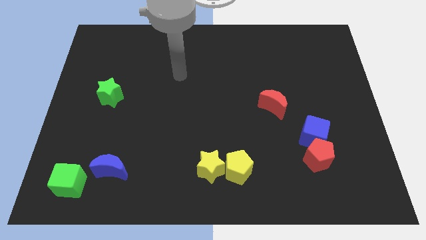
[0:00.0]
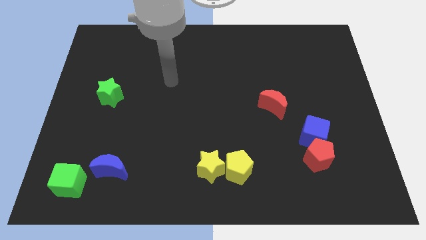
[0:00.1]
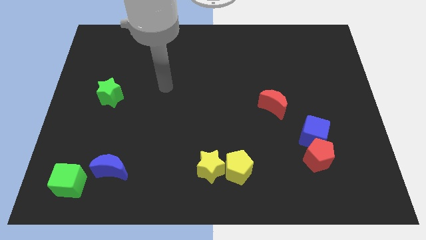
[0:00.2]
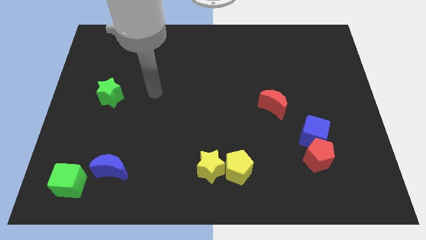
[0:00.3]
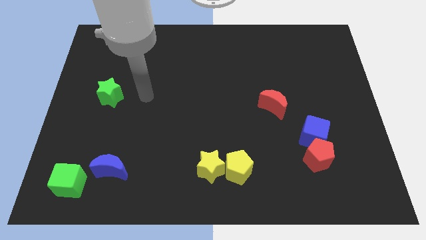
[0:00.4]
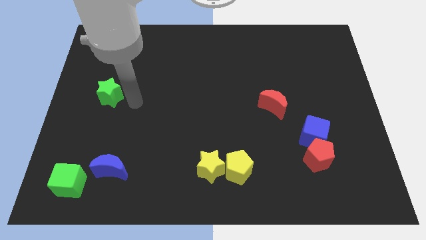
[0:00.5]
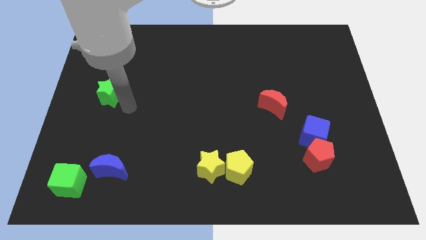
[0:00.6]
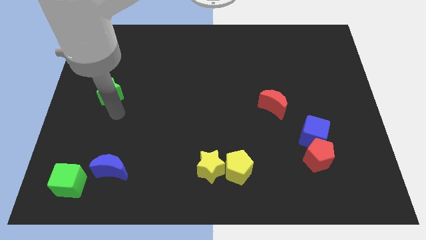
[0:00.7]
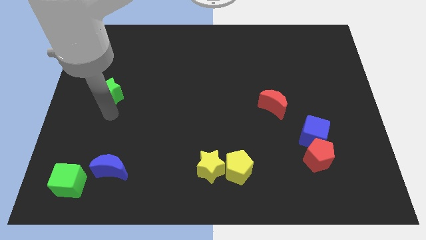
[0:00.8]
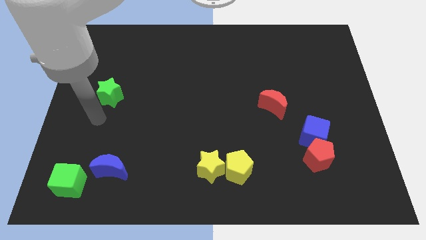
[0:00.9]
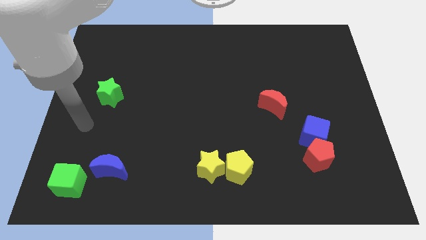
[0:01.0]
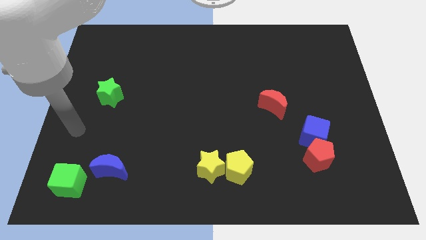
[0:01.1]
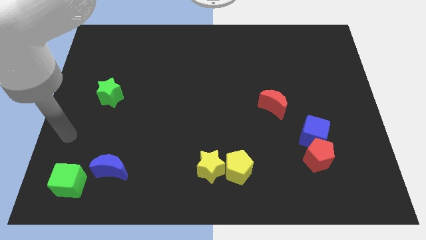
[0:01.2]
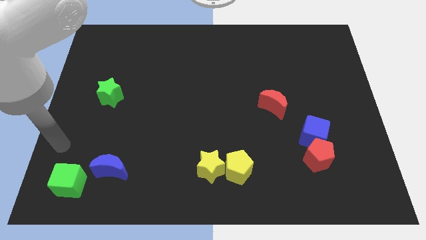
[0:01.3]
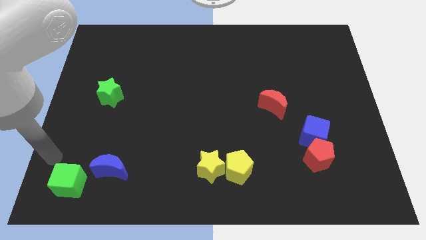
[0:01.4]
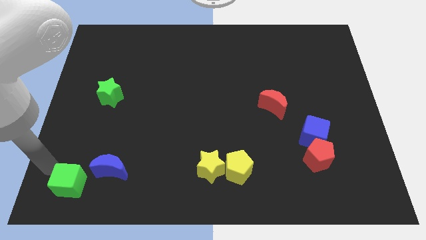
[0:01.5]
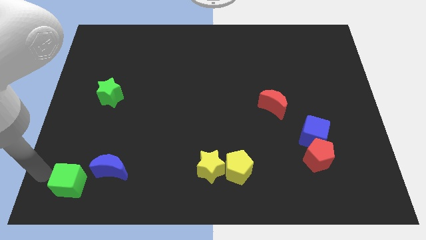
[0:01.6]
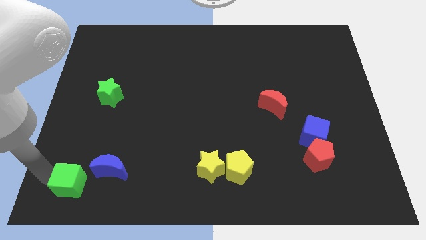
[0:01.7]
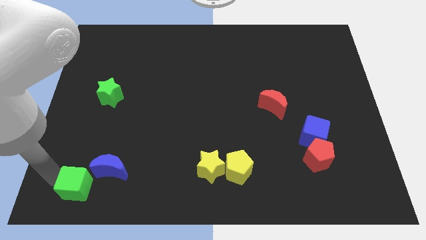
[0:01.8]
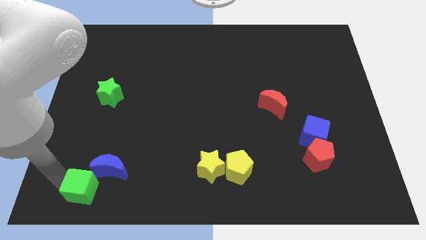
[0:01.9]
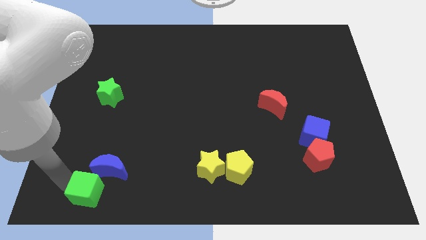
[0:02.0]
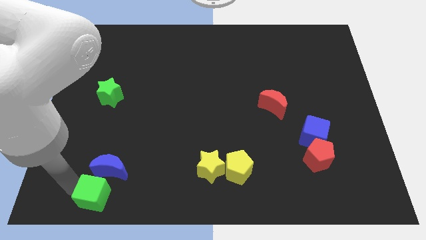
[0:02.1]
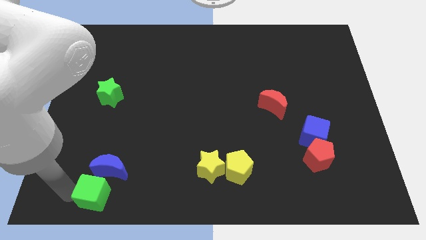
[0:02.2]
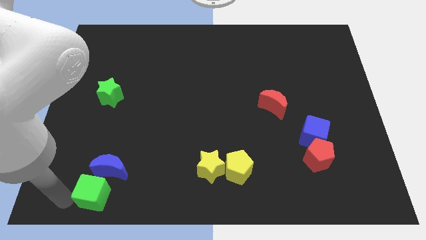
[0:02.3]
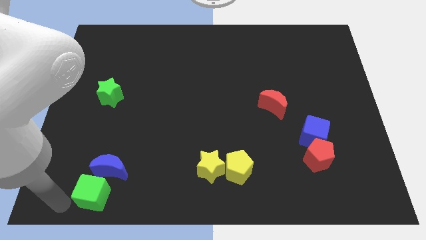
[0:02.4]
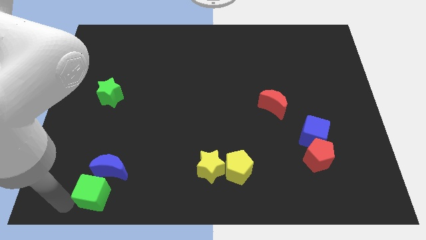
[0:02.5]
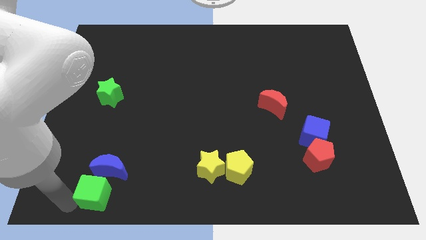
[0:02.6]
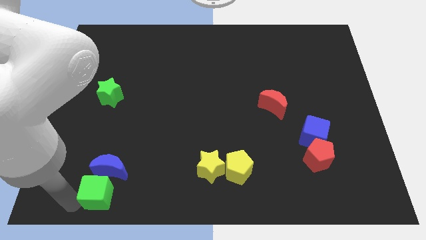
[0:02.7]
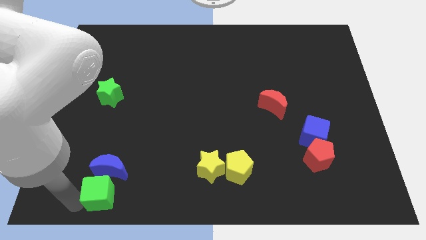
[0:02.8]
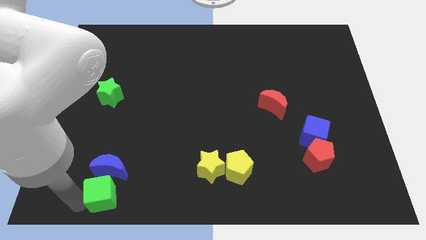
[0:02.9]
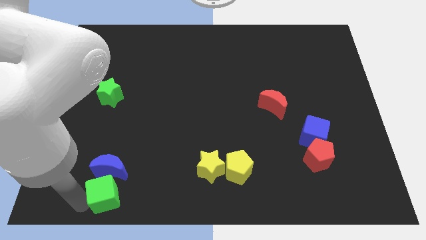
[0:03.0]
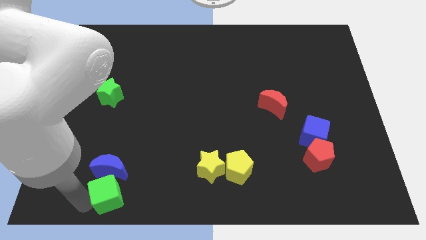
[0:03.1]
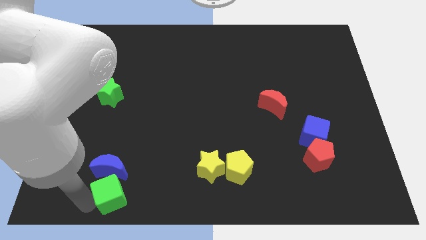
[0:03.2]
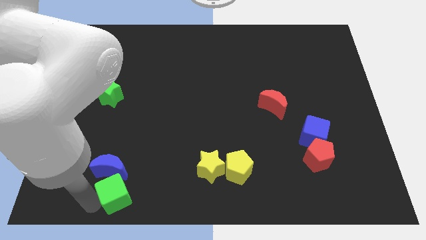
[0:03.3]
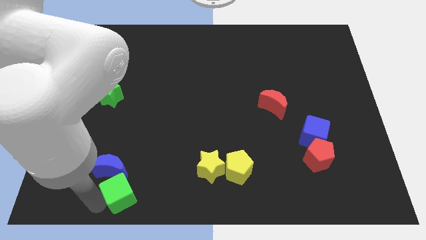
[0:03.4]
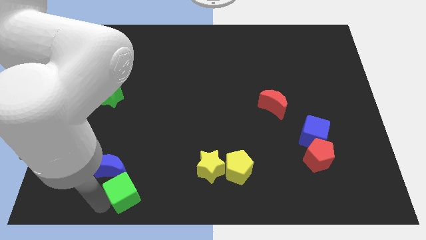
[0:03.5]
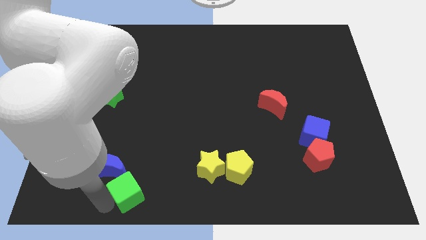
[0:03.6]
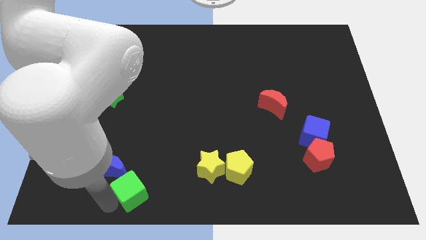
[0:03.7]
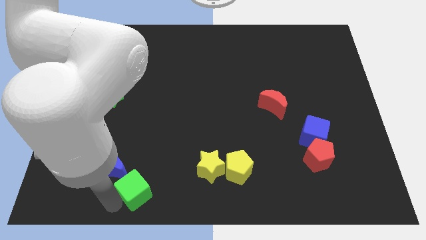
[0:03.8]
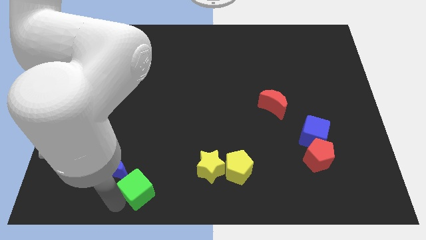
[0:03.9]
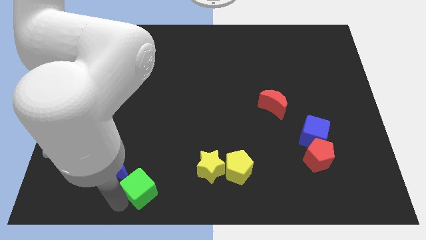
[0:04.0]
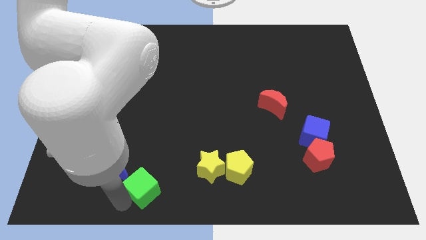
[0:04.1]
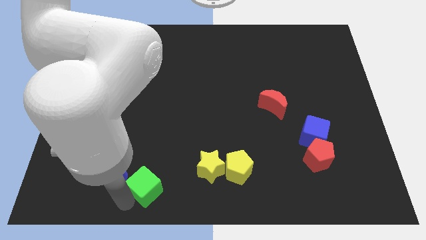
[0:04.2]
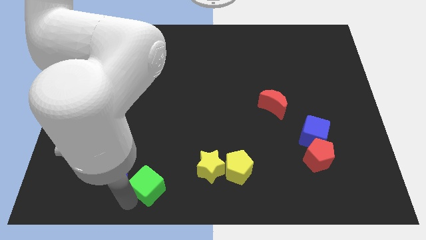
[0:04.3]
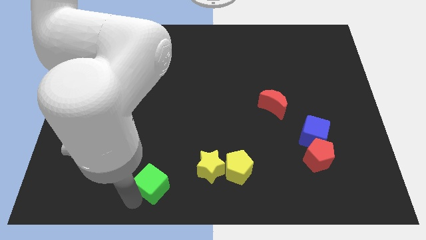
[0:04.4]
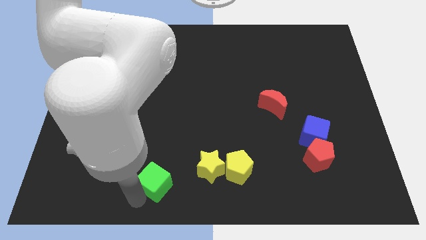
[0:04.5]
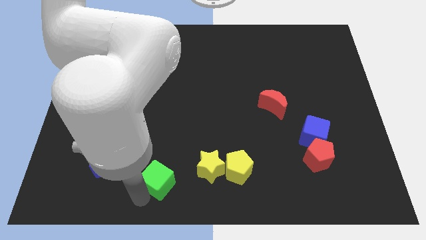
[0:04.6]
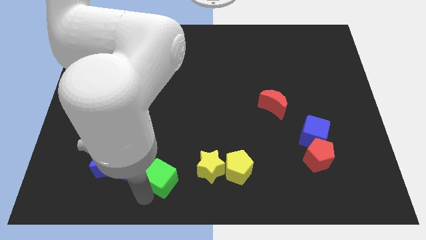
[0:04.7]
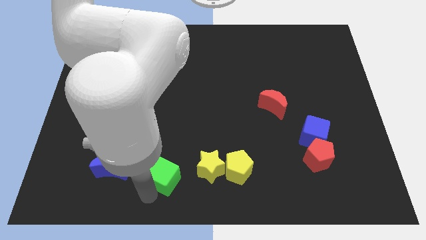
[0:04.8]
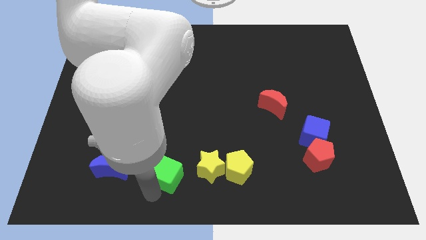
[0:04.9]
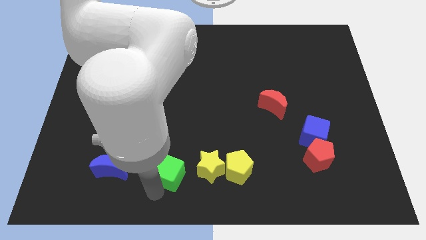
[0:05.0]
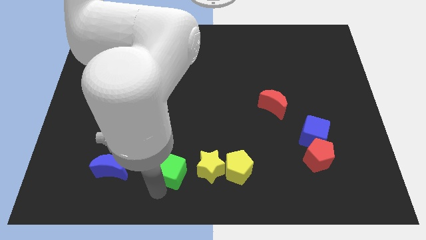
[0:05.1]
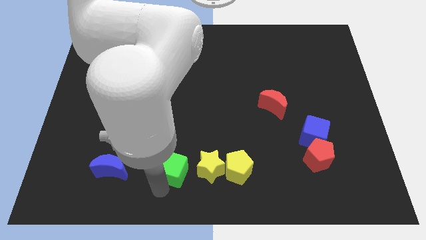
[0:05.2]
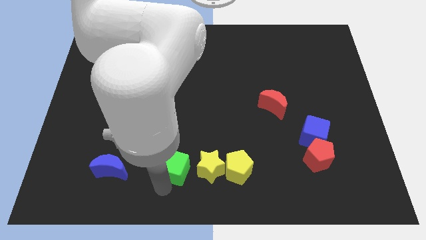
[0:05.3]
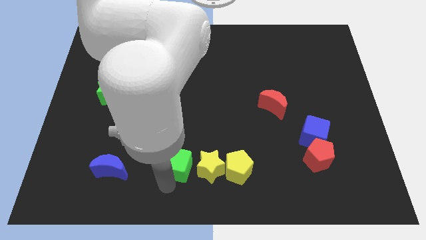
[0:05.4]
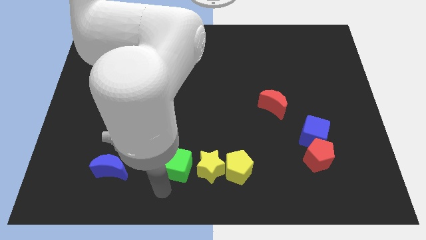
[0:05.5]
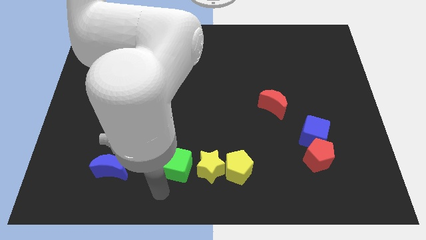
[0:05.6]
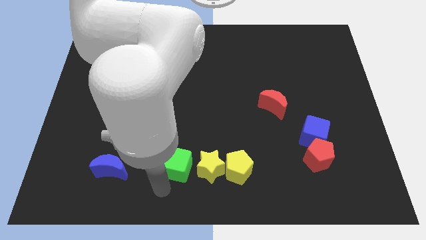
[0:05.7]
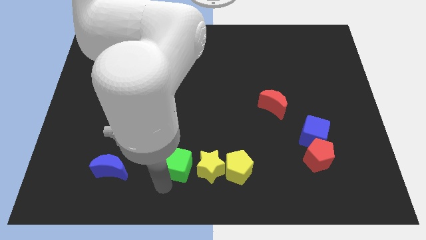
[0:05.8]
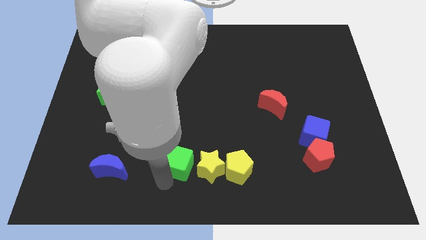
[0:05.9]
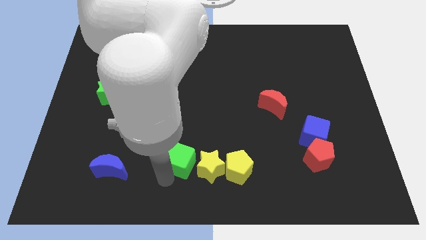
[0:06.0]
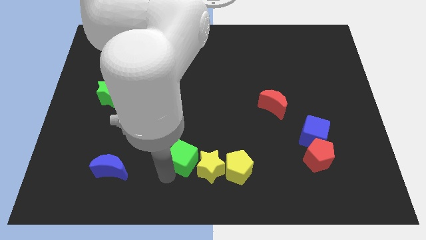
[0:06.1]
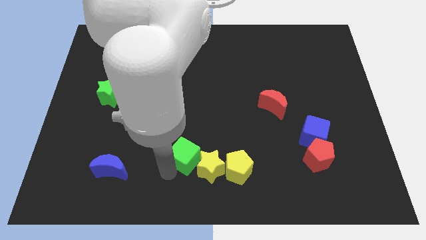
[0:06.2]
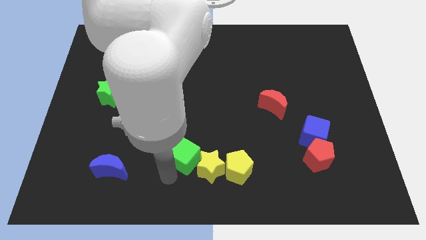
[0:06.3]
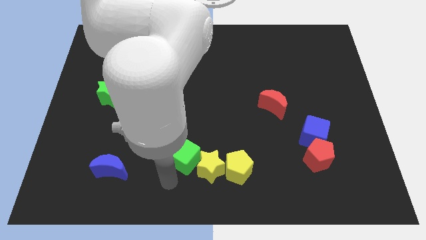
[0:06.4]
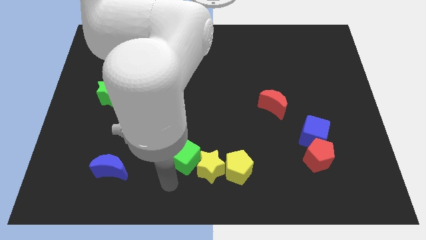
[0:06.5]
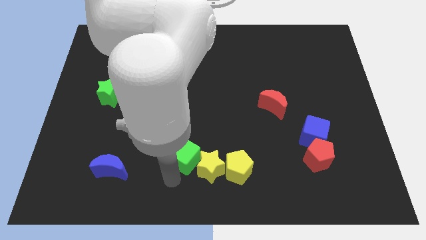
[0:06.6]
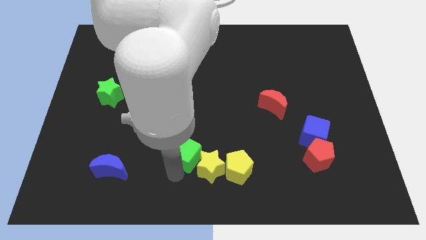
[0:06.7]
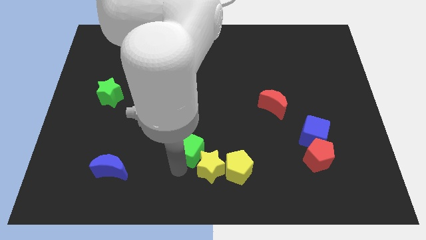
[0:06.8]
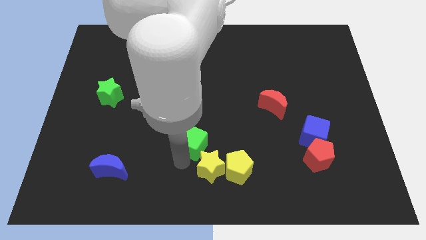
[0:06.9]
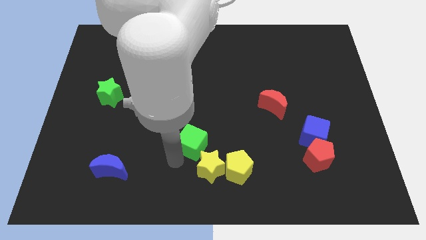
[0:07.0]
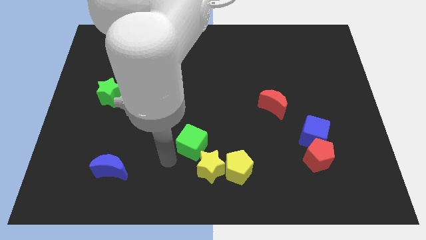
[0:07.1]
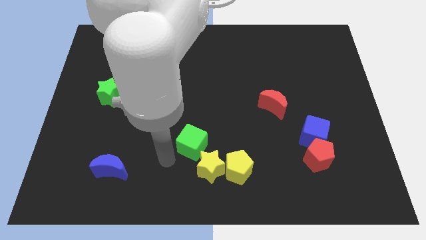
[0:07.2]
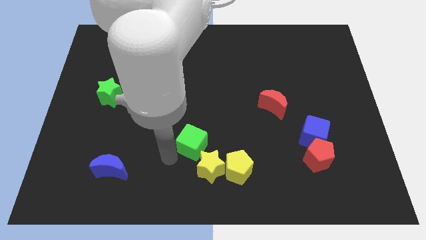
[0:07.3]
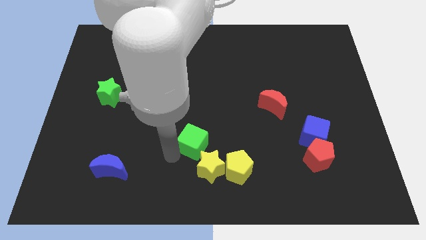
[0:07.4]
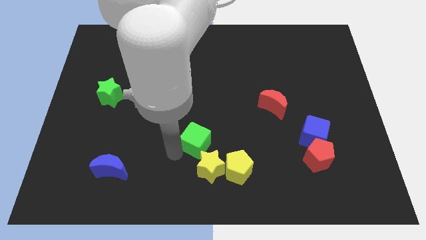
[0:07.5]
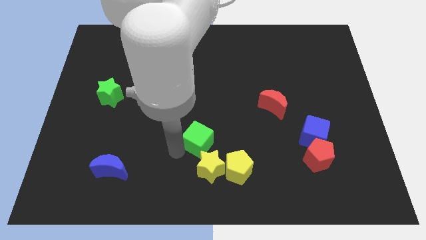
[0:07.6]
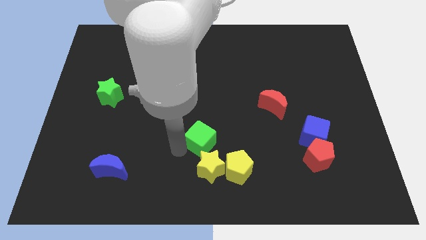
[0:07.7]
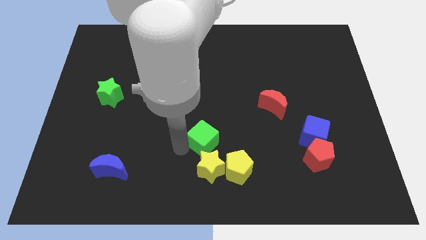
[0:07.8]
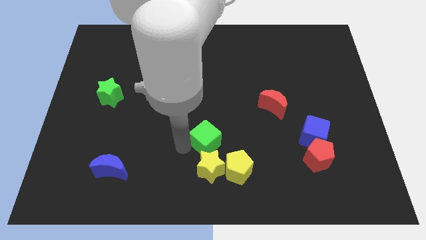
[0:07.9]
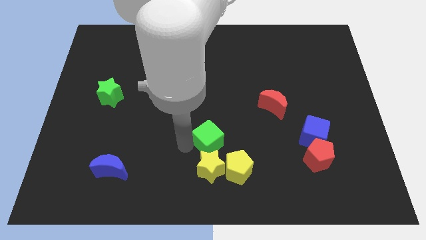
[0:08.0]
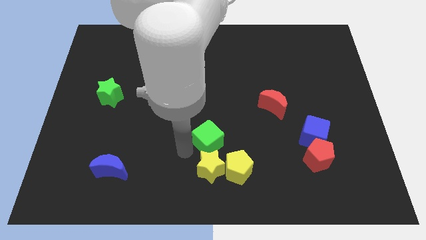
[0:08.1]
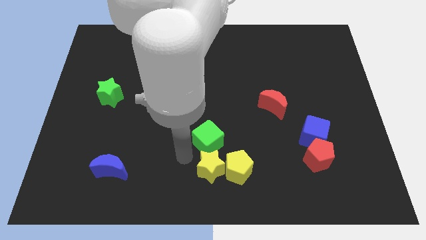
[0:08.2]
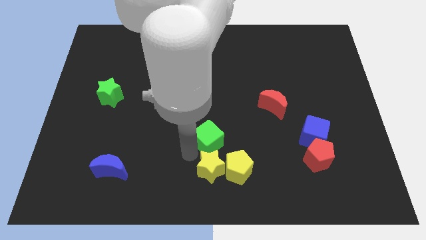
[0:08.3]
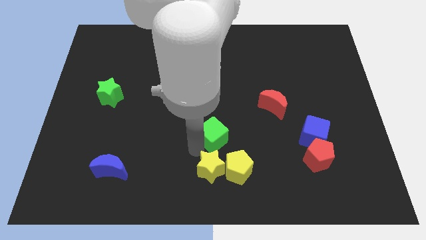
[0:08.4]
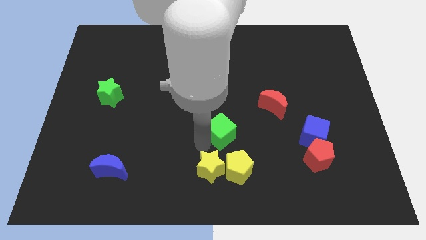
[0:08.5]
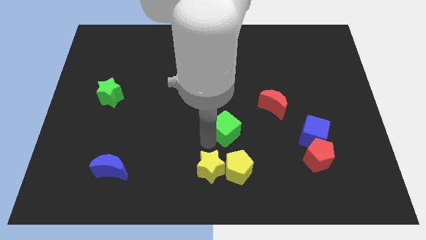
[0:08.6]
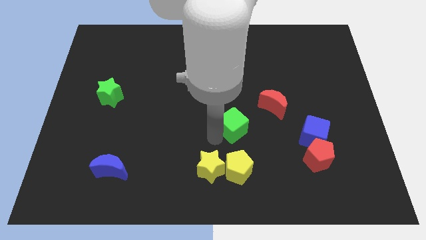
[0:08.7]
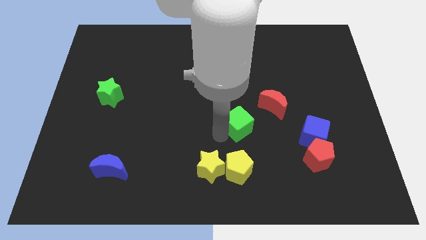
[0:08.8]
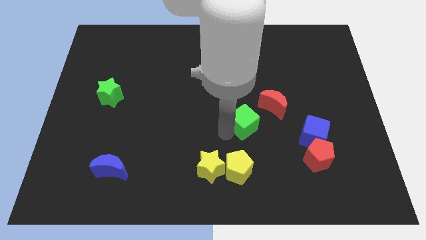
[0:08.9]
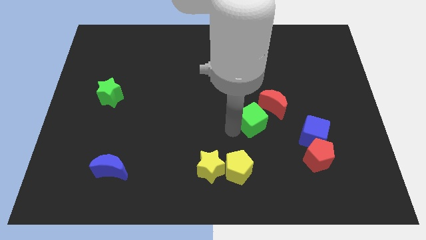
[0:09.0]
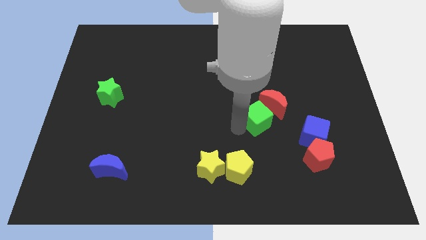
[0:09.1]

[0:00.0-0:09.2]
put the green cube towards the red moon
